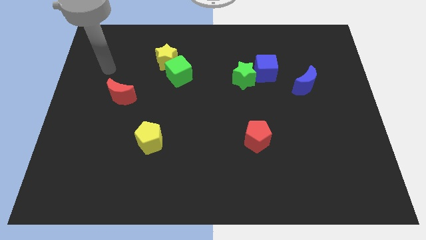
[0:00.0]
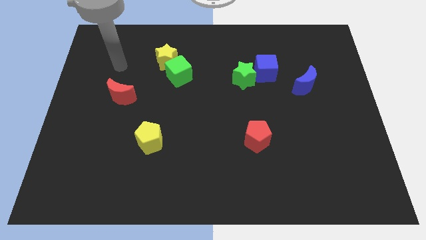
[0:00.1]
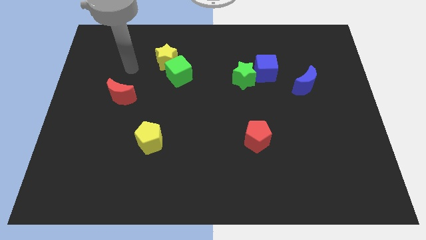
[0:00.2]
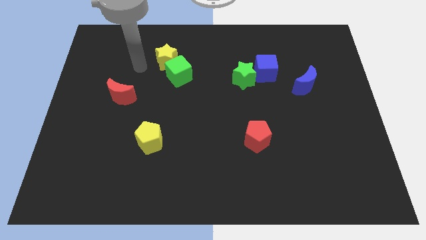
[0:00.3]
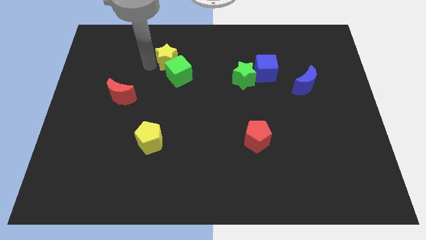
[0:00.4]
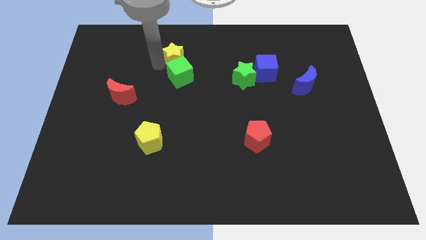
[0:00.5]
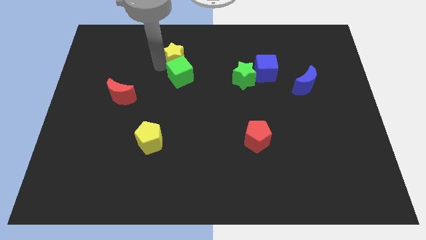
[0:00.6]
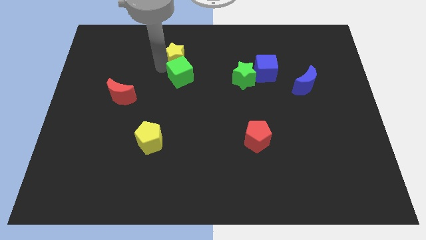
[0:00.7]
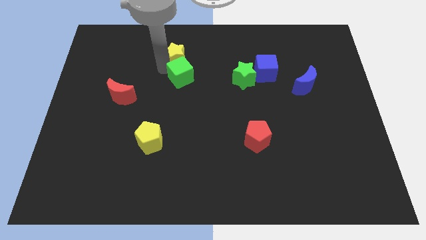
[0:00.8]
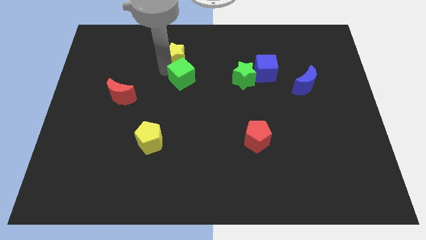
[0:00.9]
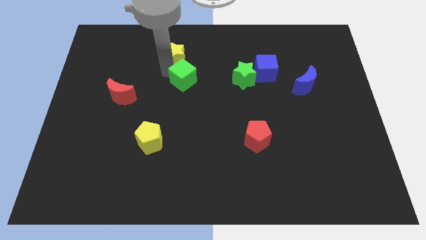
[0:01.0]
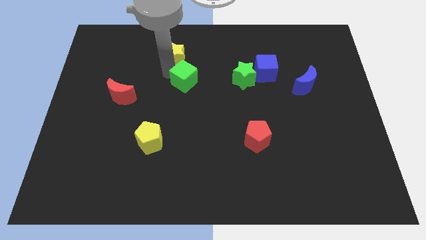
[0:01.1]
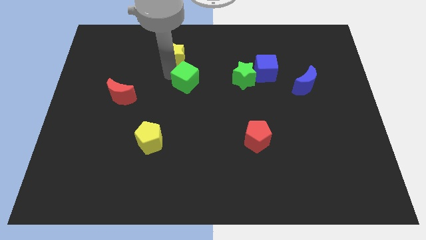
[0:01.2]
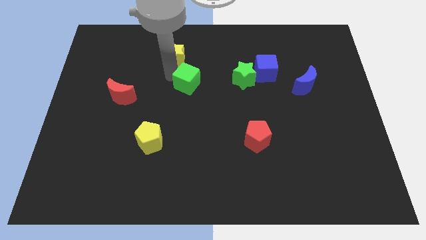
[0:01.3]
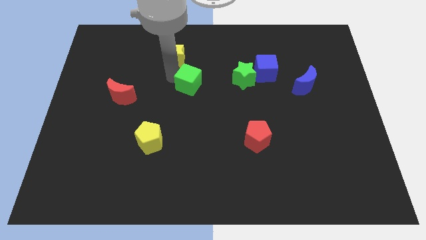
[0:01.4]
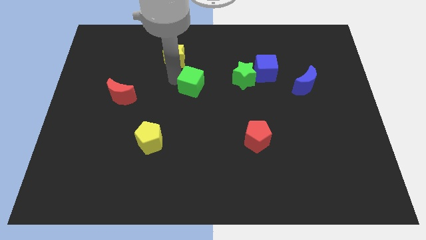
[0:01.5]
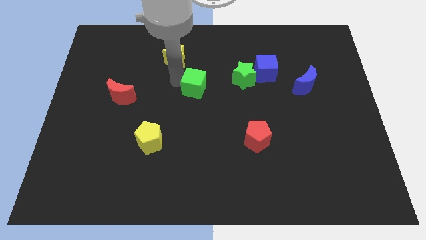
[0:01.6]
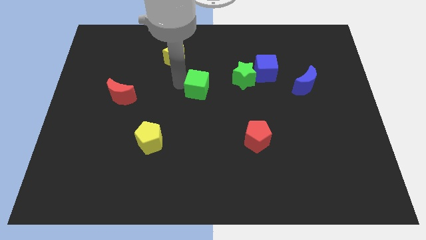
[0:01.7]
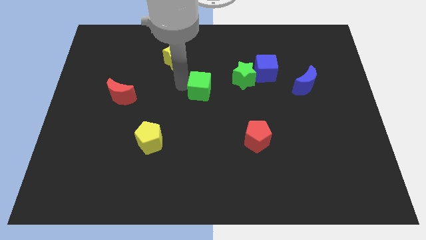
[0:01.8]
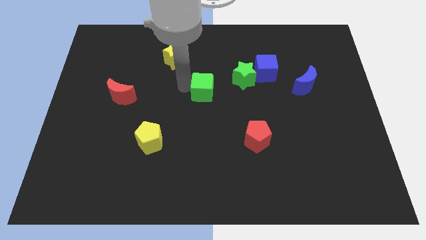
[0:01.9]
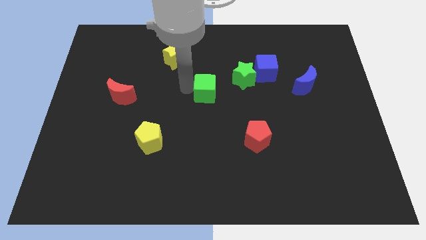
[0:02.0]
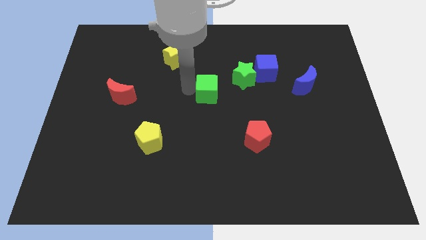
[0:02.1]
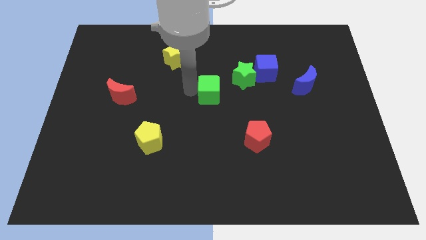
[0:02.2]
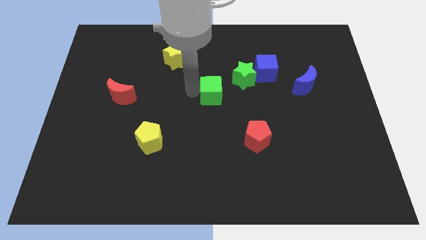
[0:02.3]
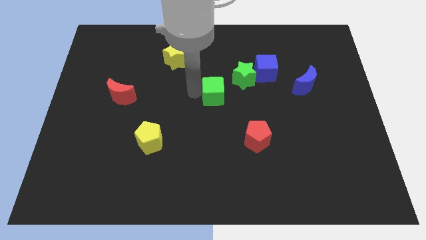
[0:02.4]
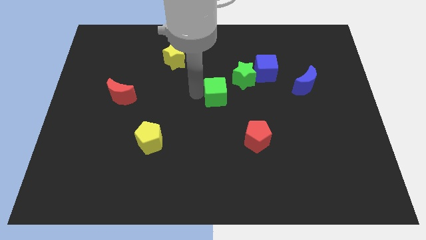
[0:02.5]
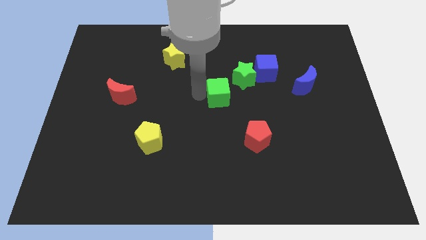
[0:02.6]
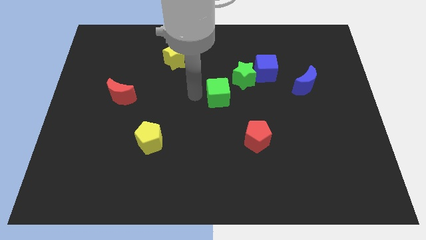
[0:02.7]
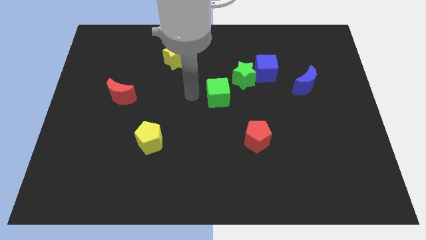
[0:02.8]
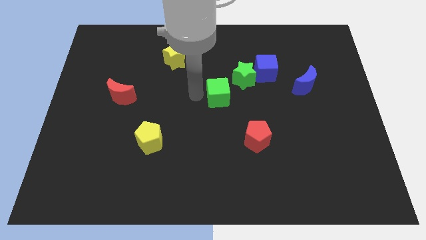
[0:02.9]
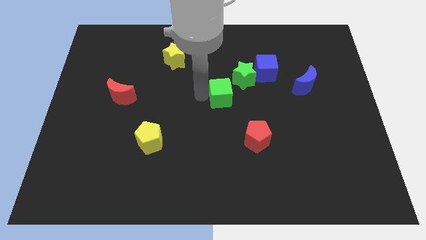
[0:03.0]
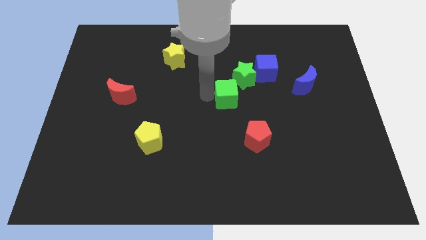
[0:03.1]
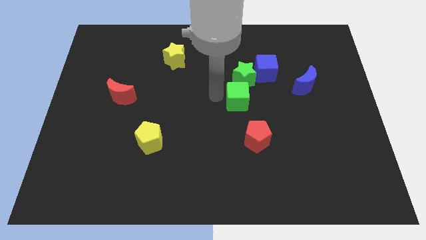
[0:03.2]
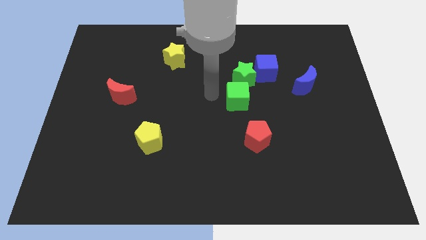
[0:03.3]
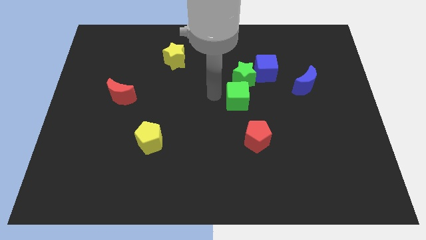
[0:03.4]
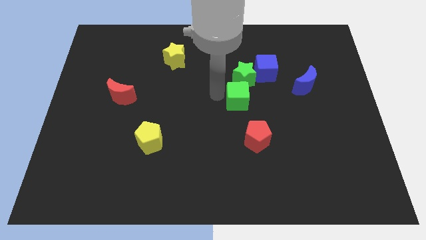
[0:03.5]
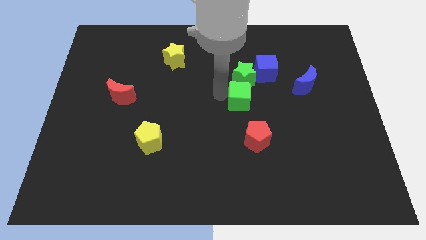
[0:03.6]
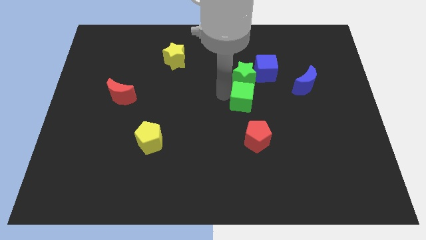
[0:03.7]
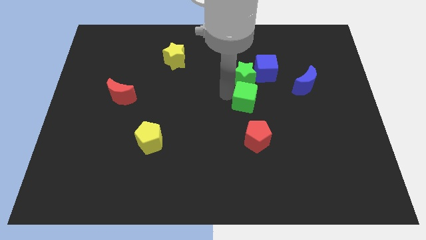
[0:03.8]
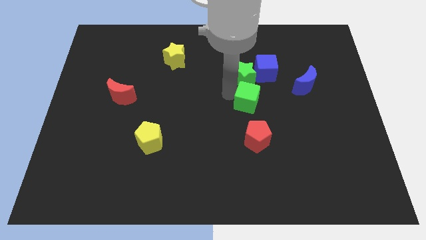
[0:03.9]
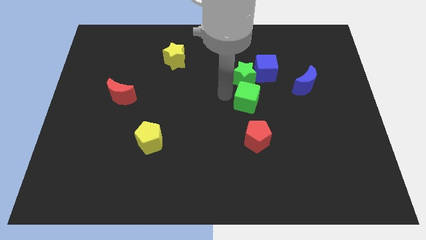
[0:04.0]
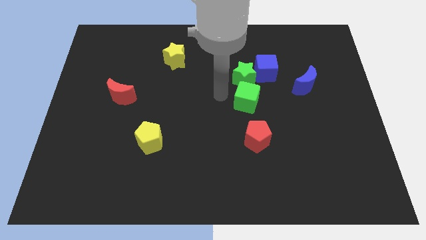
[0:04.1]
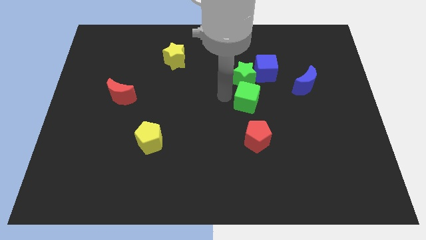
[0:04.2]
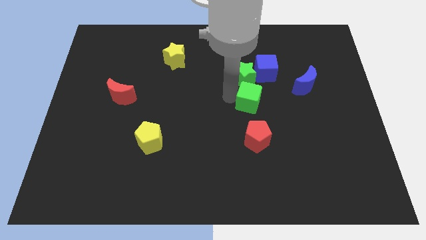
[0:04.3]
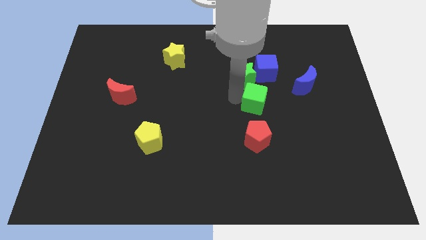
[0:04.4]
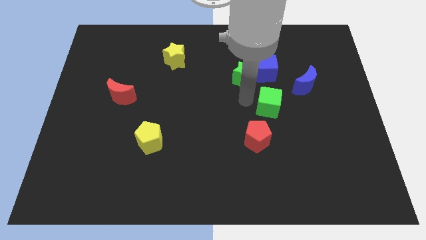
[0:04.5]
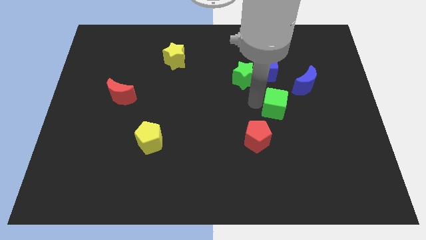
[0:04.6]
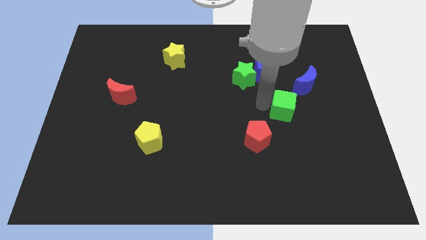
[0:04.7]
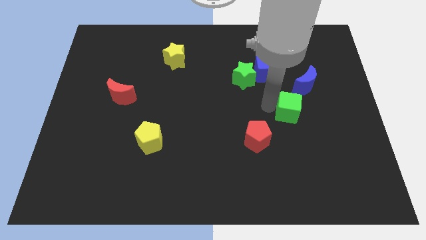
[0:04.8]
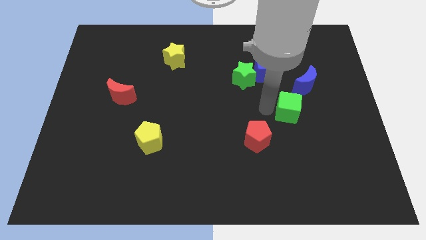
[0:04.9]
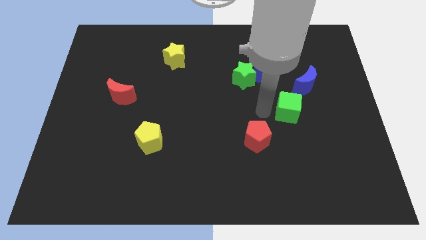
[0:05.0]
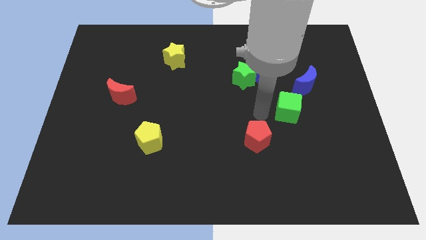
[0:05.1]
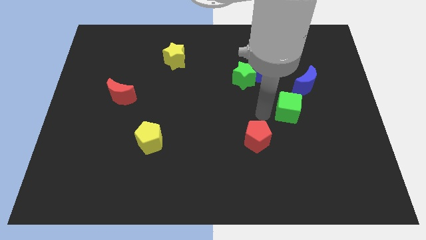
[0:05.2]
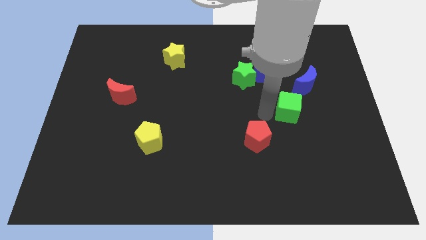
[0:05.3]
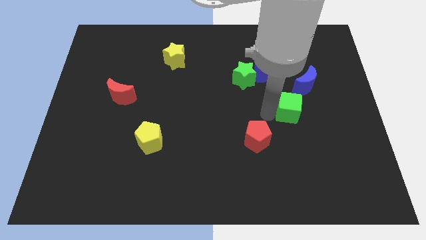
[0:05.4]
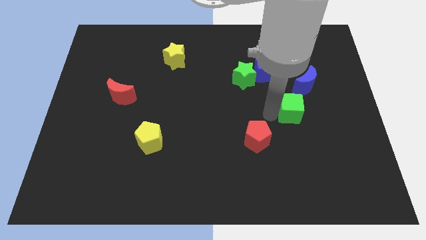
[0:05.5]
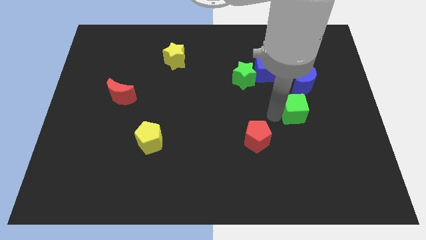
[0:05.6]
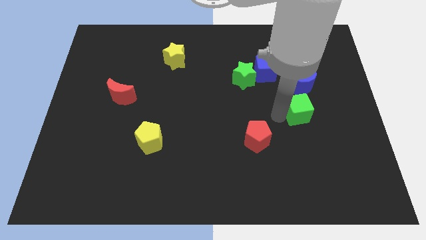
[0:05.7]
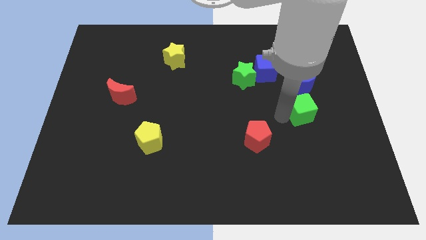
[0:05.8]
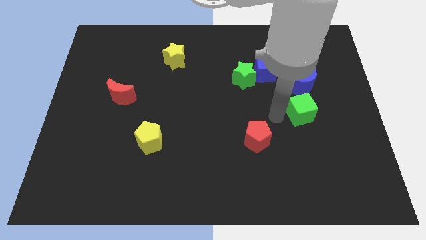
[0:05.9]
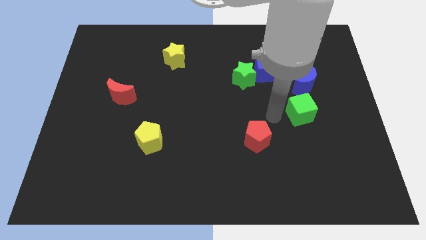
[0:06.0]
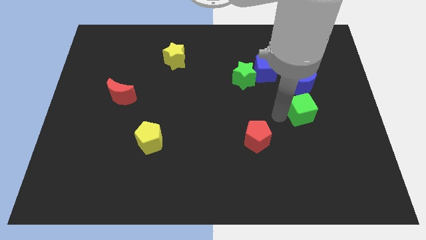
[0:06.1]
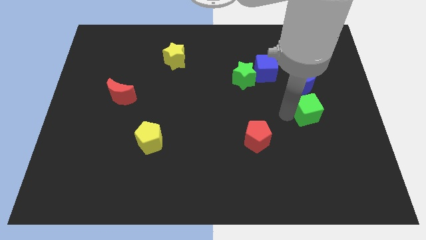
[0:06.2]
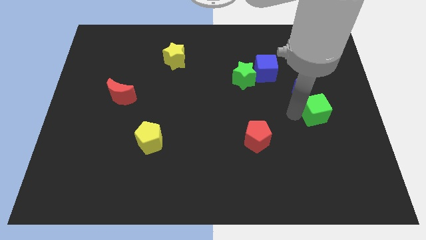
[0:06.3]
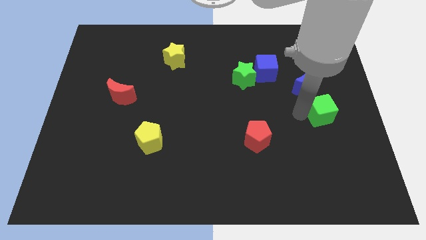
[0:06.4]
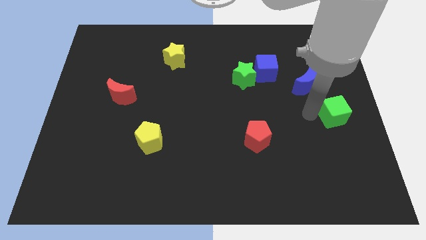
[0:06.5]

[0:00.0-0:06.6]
put the green cube to the right side
